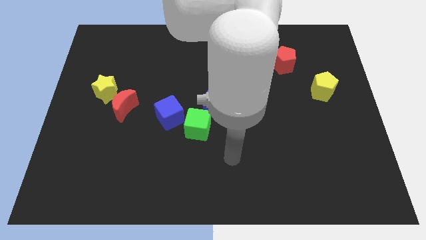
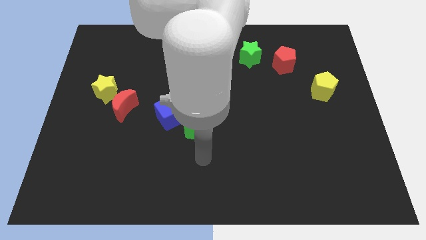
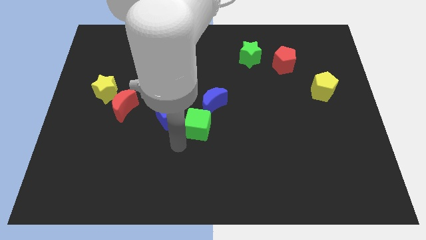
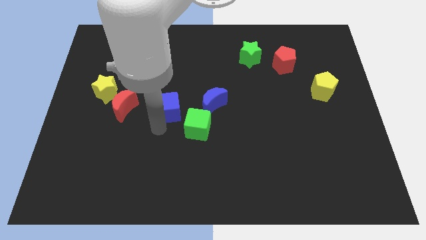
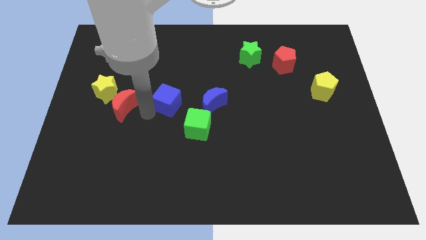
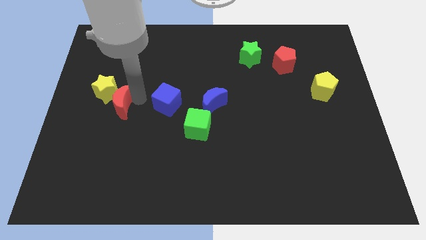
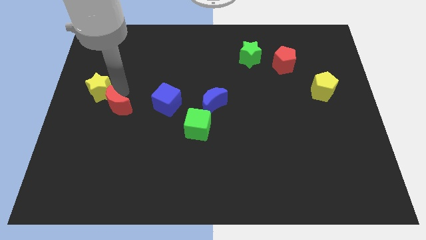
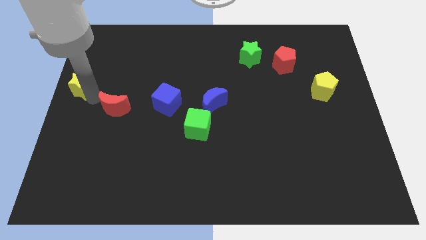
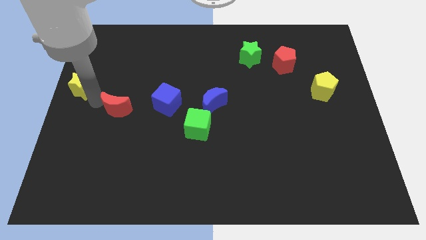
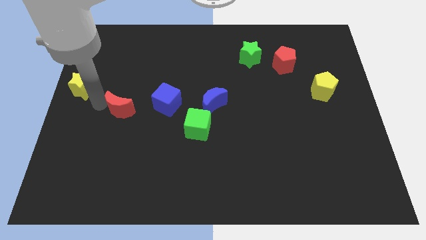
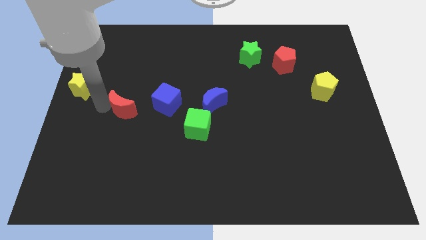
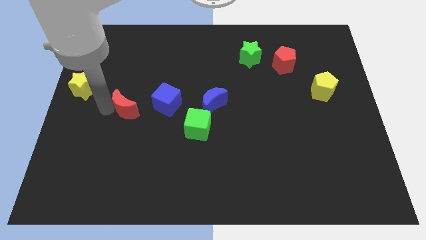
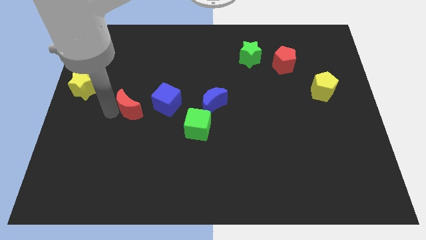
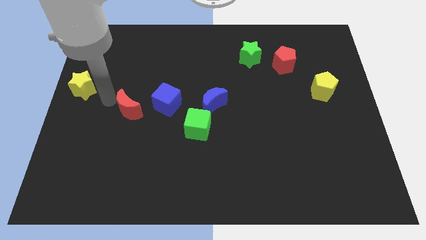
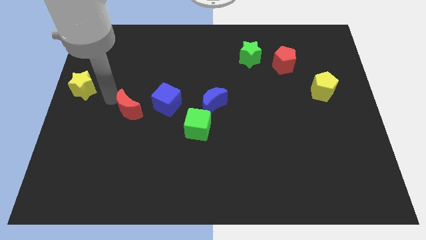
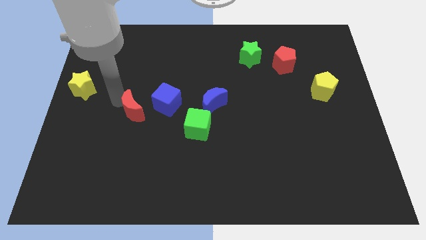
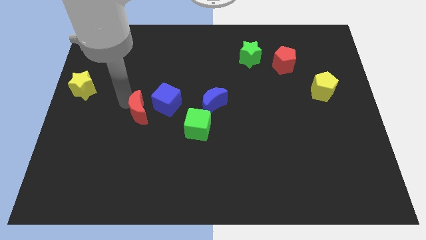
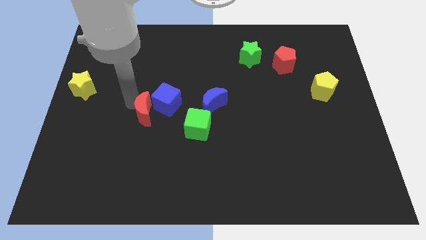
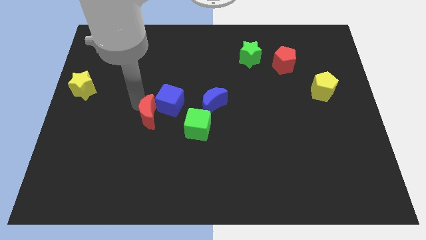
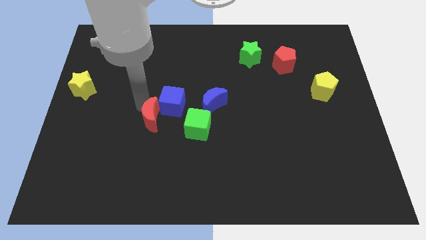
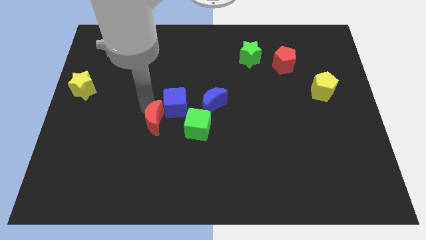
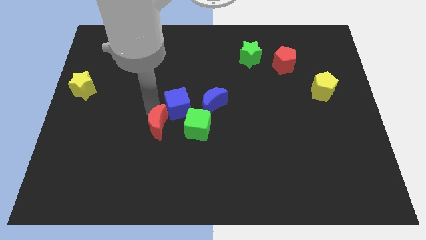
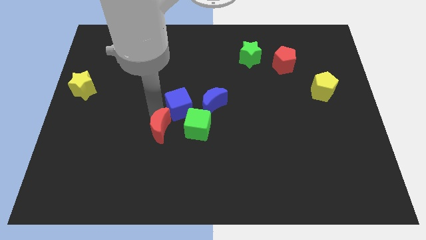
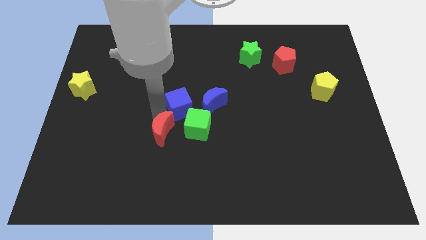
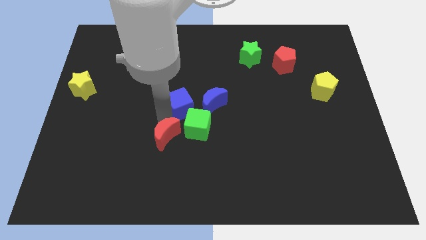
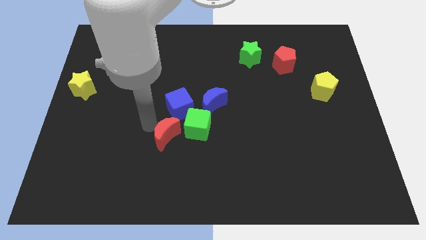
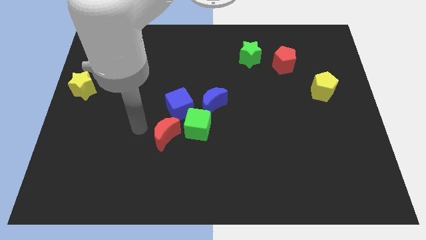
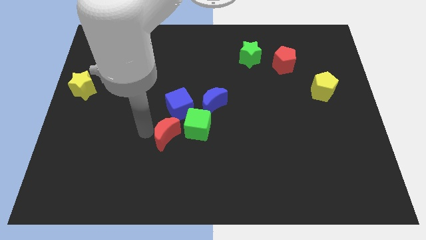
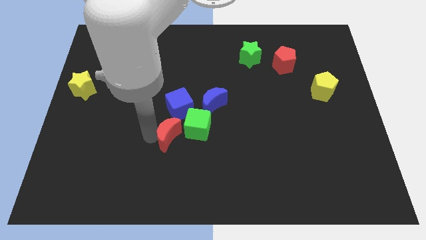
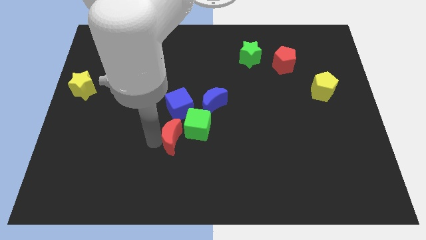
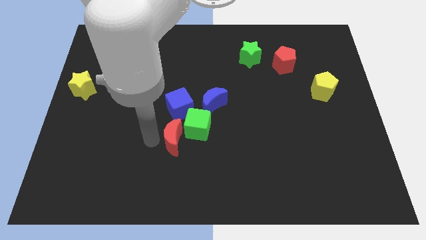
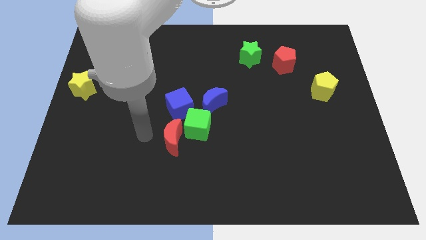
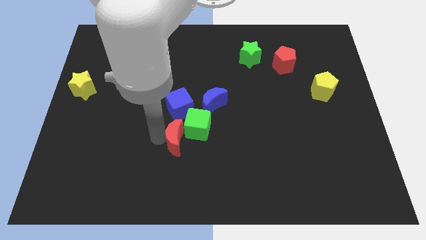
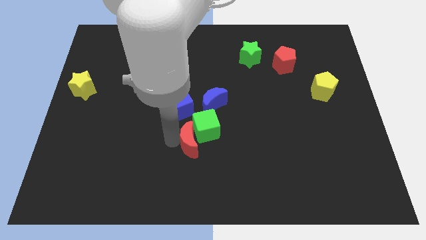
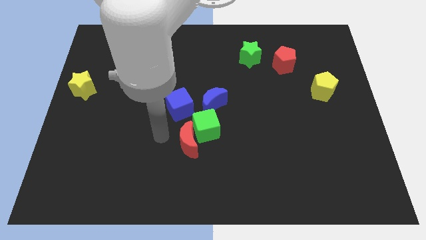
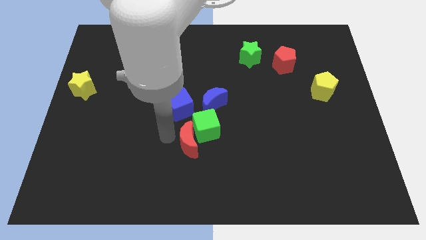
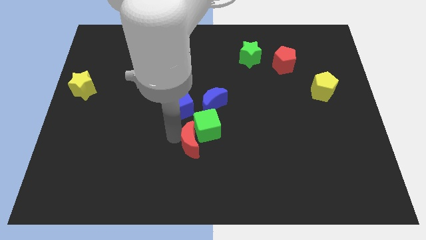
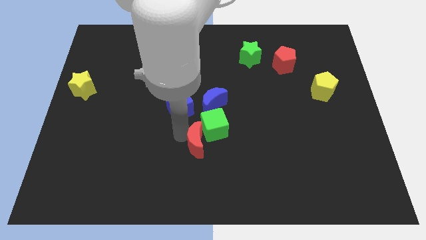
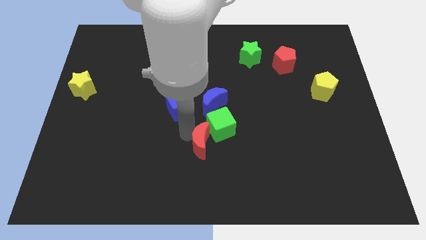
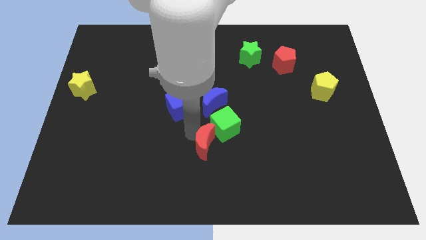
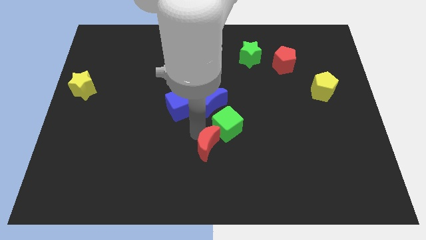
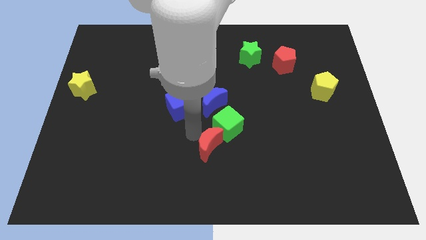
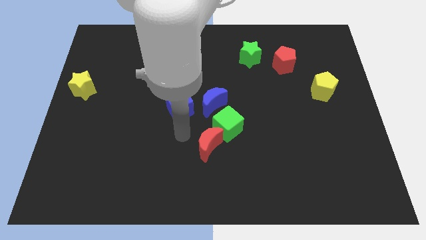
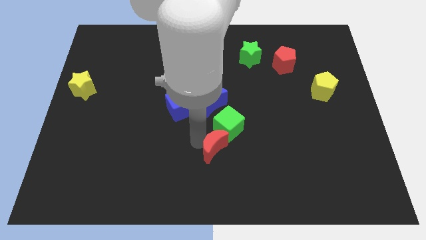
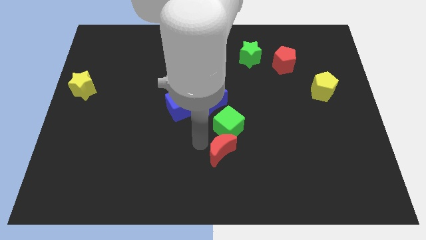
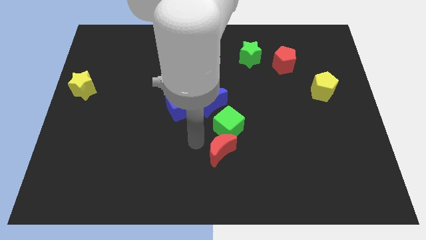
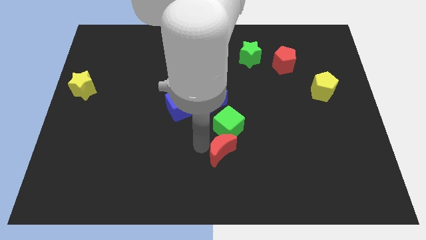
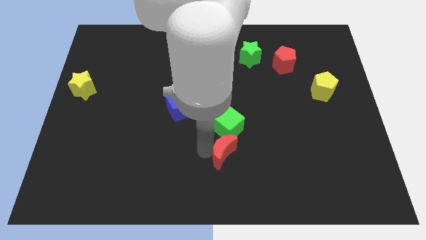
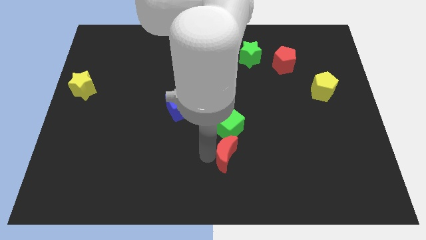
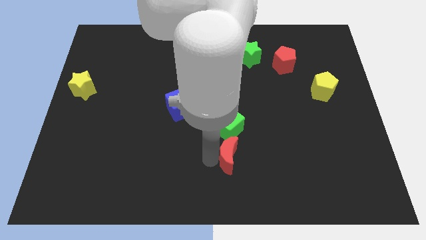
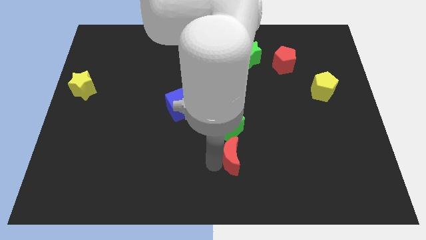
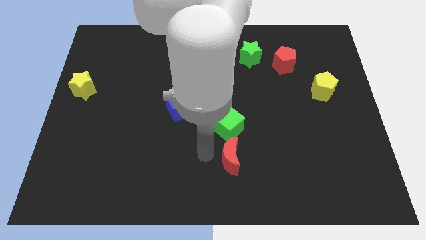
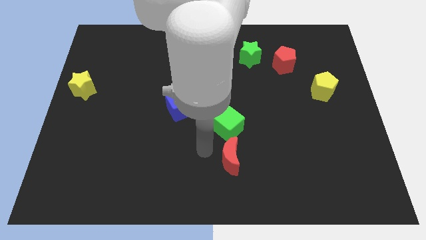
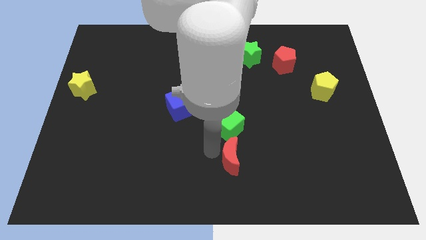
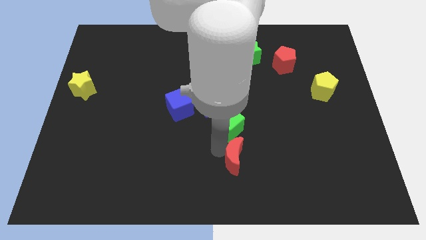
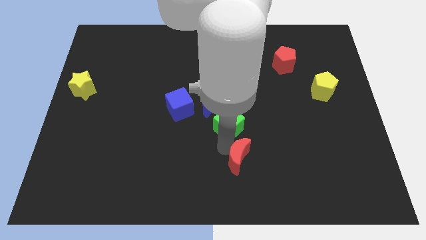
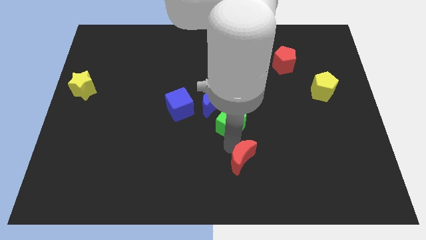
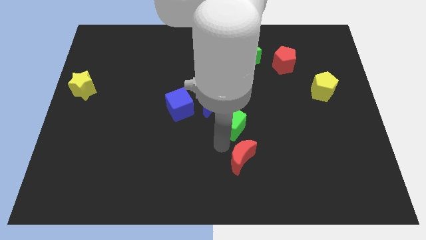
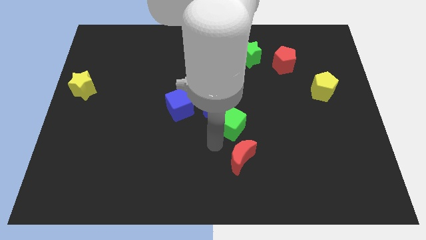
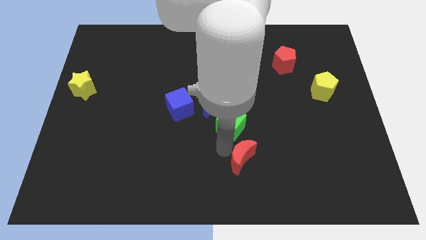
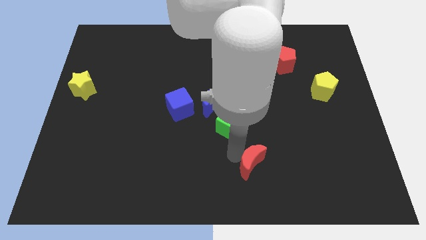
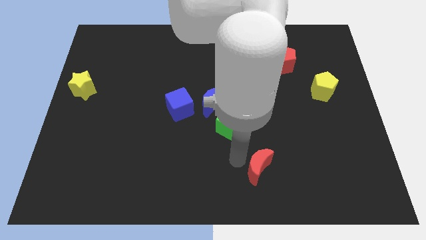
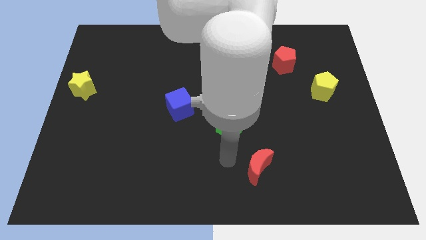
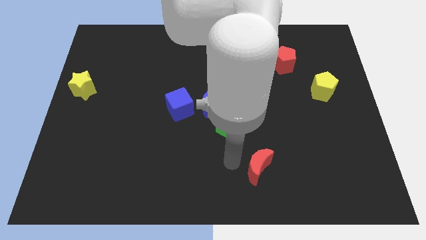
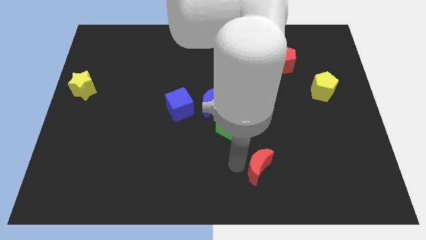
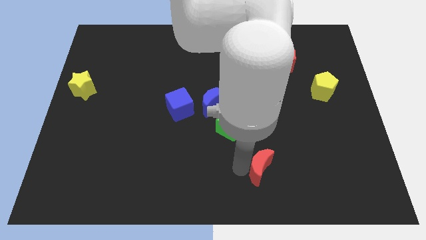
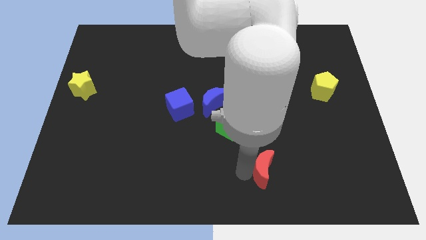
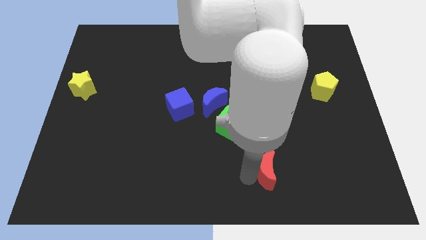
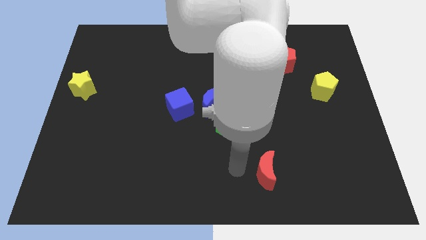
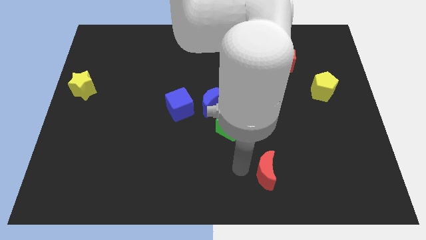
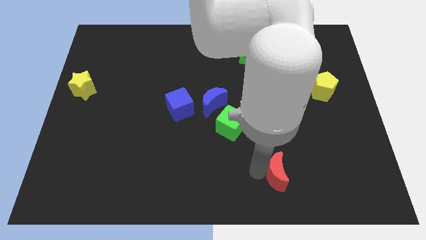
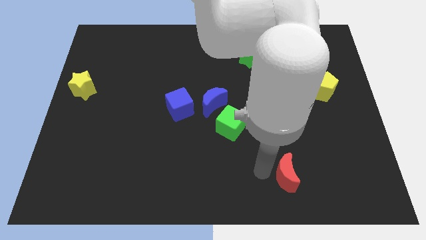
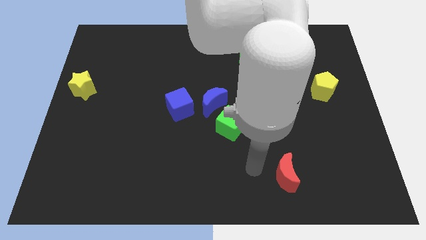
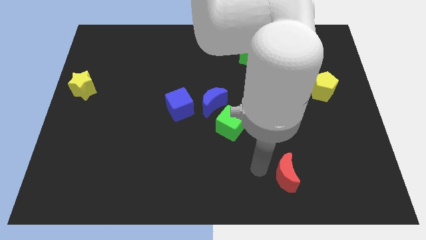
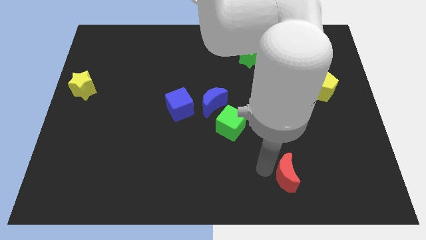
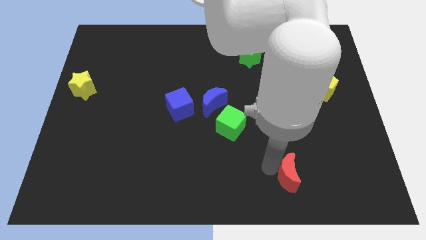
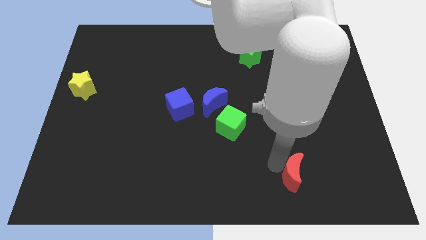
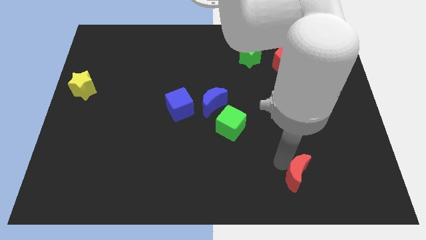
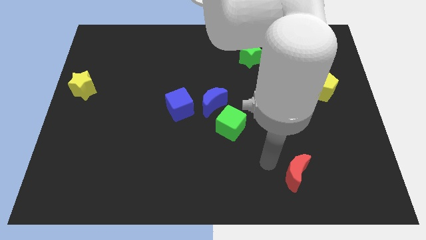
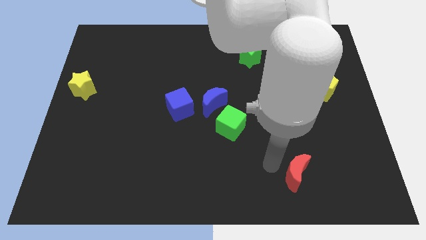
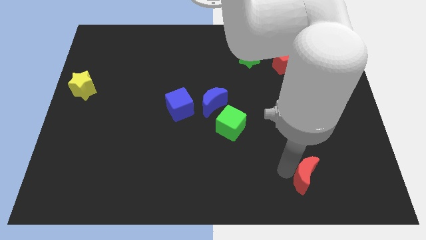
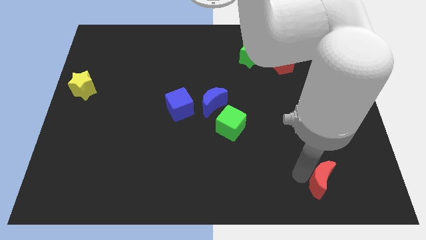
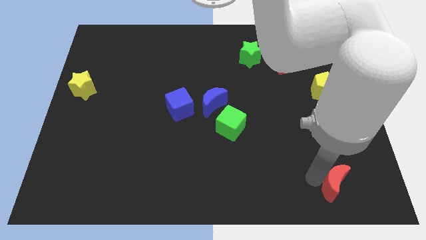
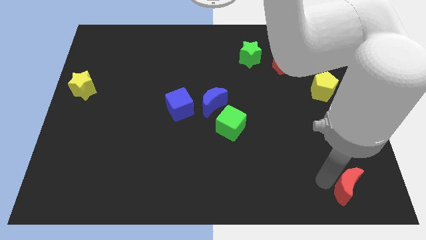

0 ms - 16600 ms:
put the red moon to the lower right corner
